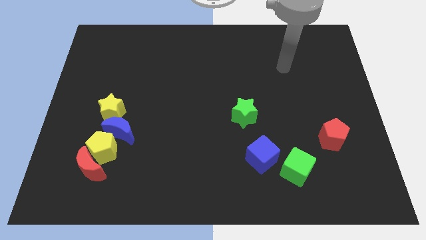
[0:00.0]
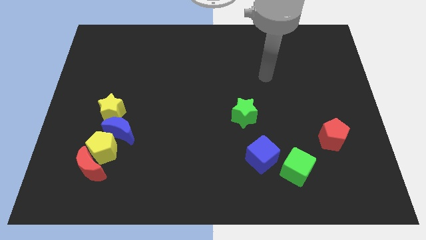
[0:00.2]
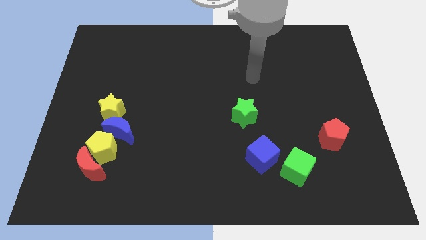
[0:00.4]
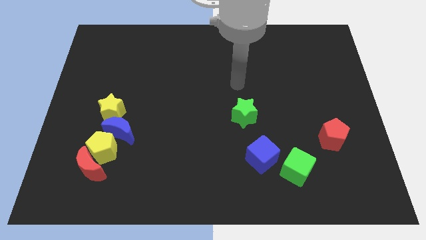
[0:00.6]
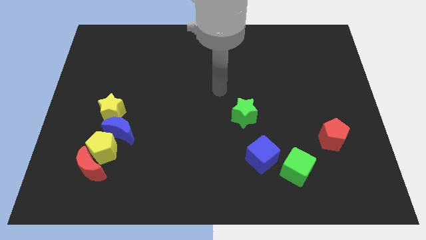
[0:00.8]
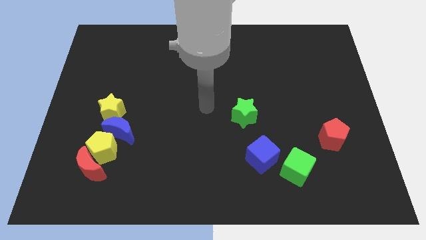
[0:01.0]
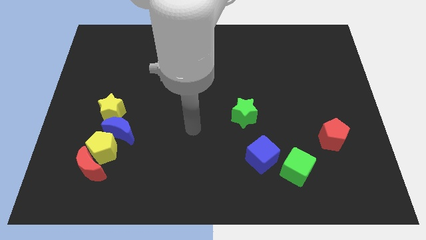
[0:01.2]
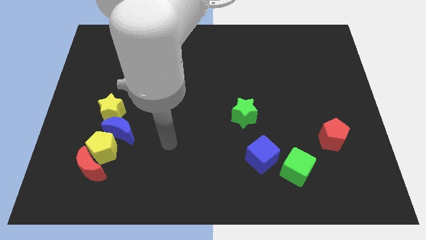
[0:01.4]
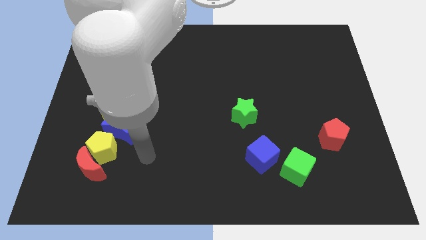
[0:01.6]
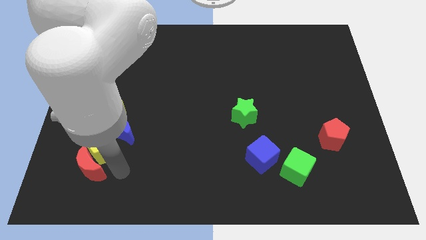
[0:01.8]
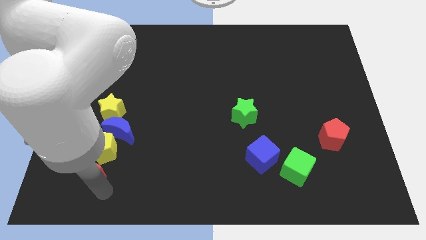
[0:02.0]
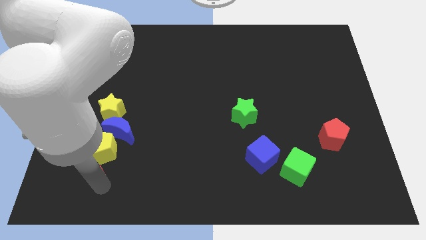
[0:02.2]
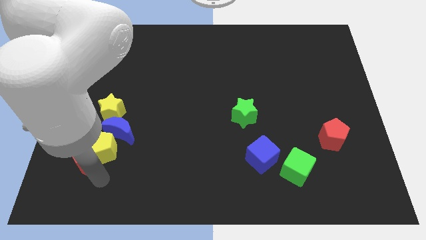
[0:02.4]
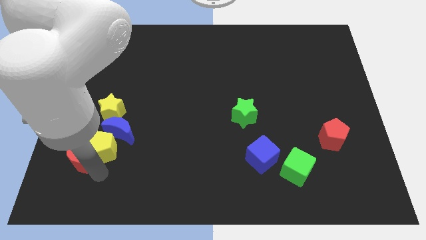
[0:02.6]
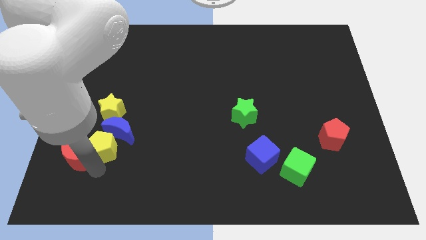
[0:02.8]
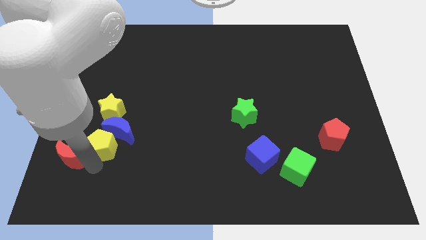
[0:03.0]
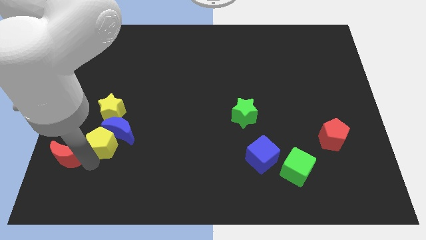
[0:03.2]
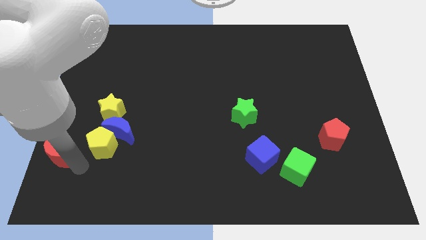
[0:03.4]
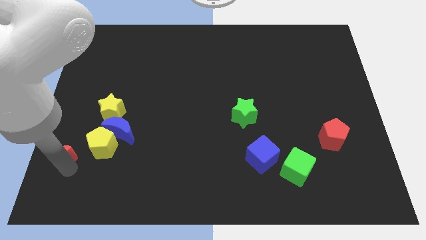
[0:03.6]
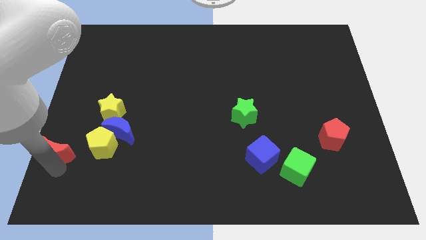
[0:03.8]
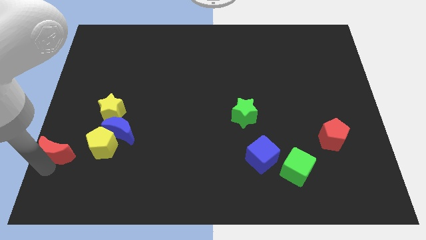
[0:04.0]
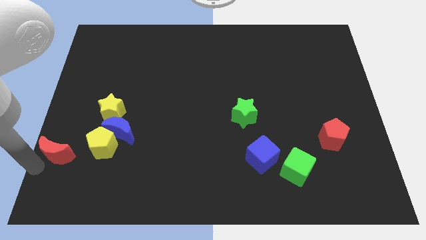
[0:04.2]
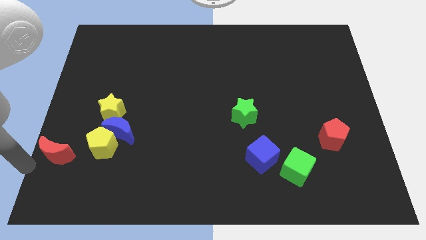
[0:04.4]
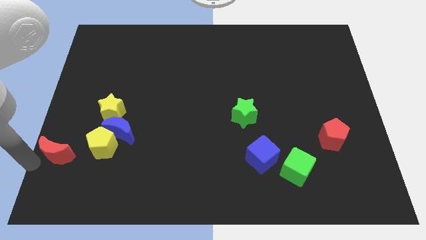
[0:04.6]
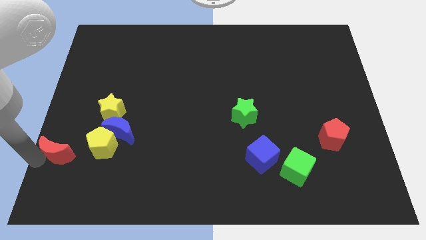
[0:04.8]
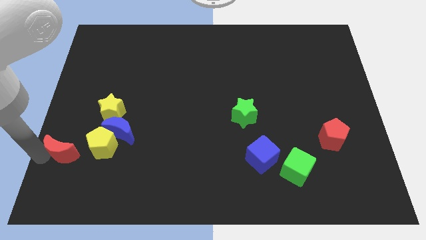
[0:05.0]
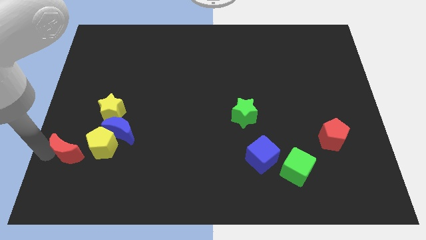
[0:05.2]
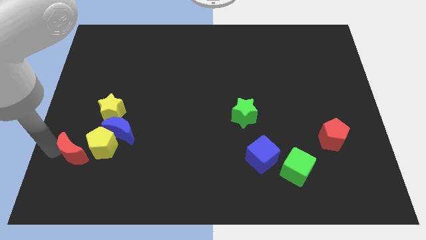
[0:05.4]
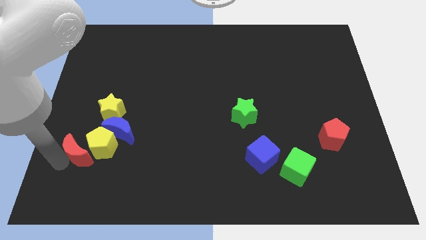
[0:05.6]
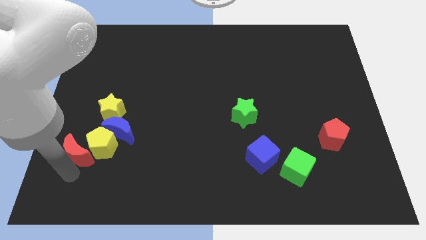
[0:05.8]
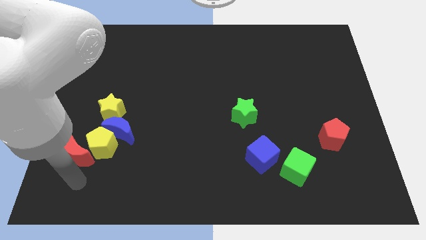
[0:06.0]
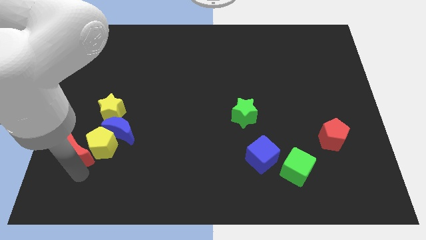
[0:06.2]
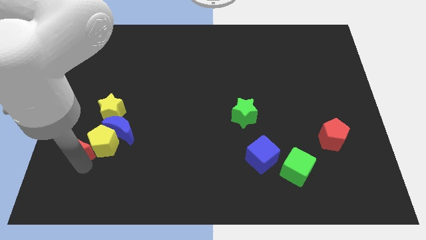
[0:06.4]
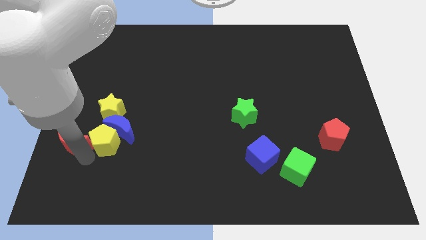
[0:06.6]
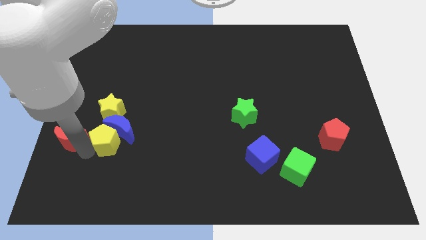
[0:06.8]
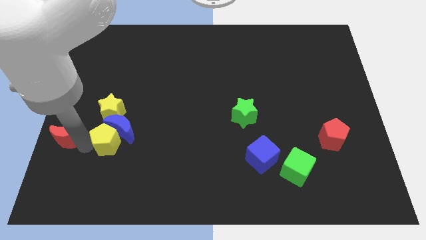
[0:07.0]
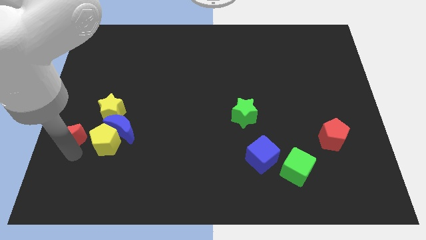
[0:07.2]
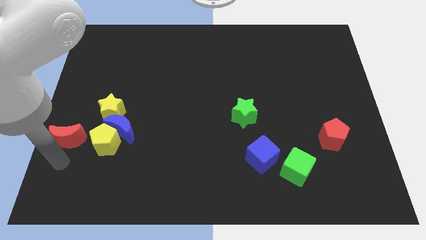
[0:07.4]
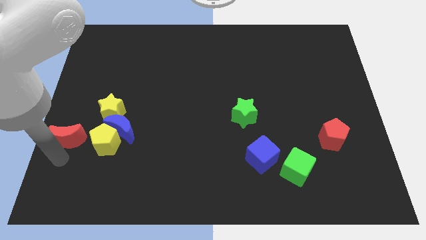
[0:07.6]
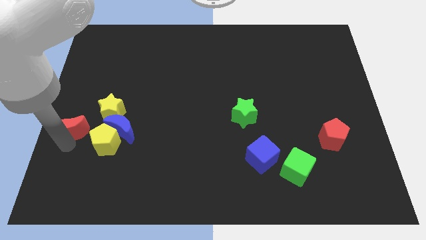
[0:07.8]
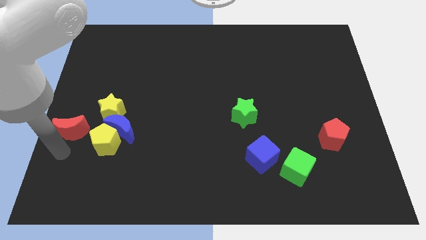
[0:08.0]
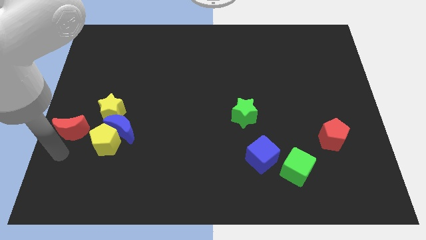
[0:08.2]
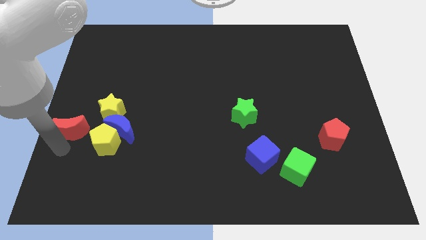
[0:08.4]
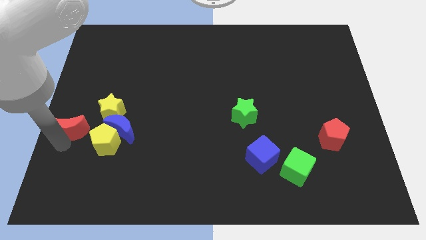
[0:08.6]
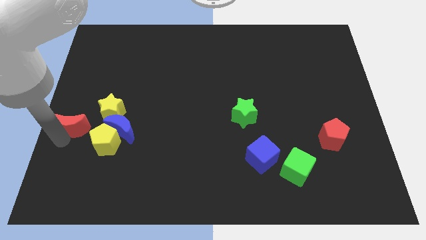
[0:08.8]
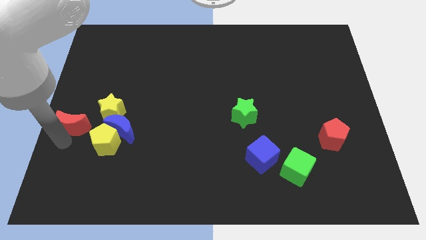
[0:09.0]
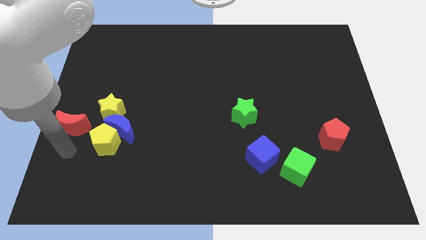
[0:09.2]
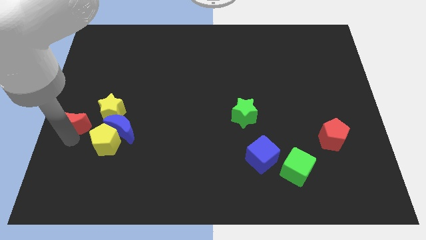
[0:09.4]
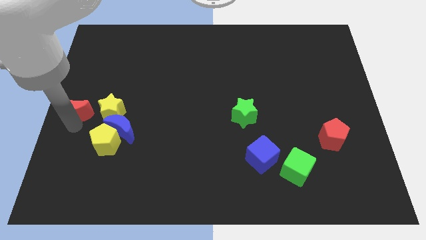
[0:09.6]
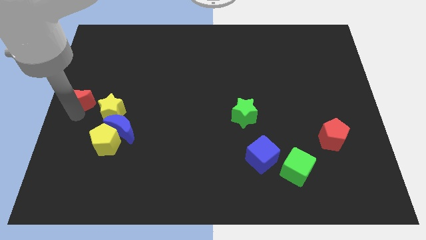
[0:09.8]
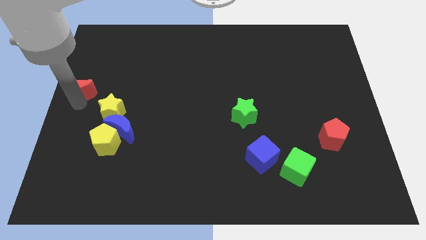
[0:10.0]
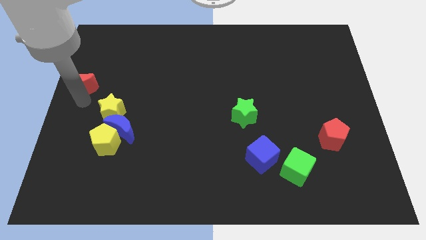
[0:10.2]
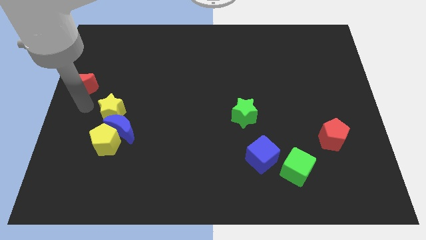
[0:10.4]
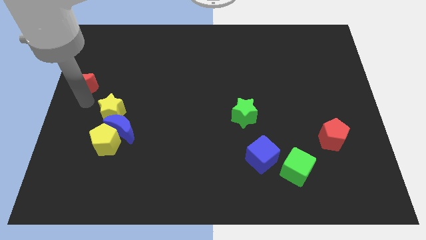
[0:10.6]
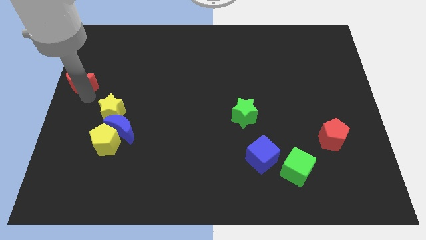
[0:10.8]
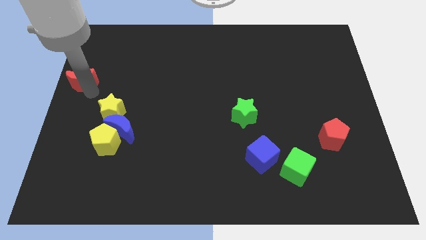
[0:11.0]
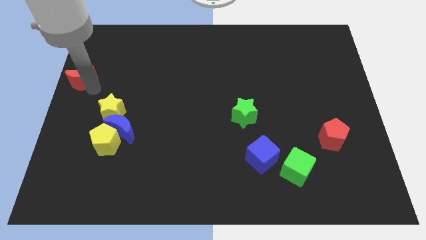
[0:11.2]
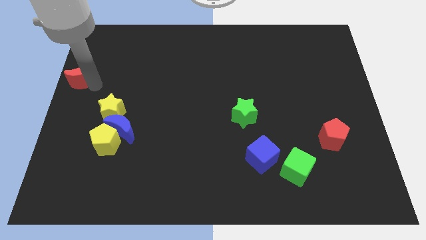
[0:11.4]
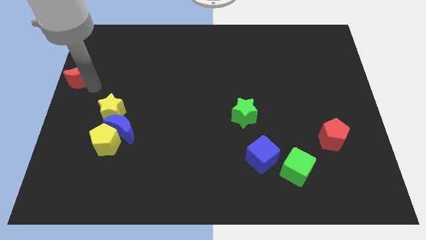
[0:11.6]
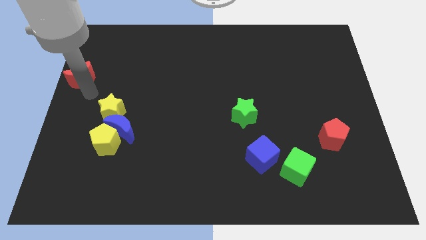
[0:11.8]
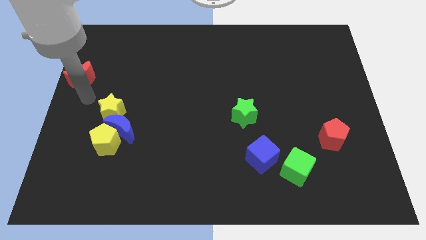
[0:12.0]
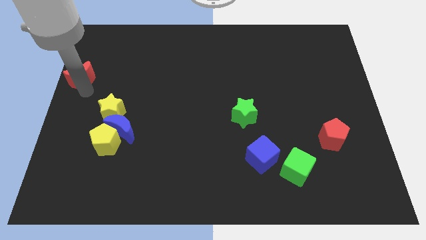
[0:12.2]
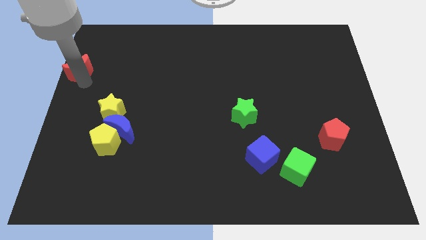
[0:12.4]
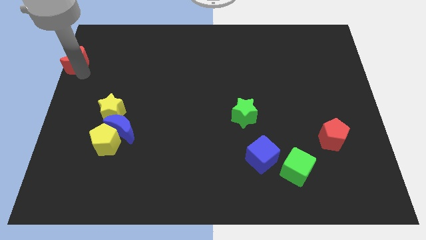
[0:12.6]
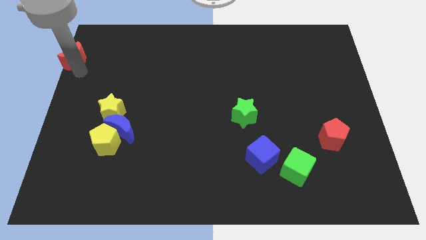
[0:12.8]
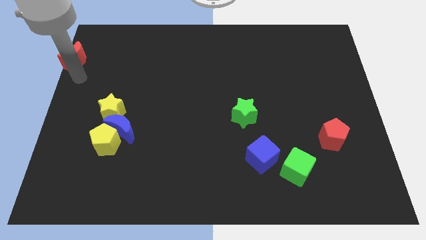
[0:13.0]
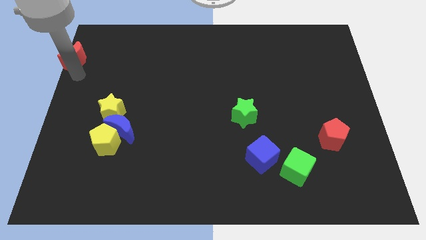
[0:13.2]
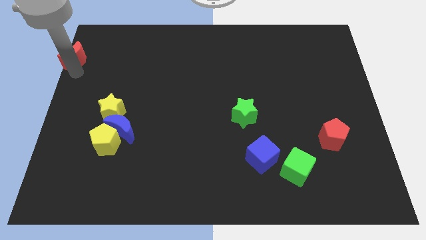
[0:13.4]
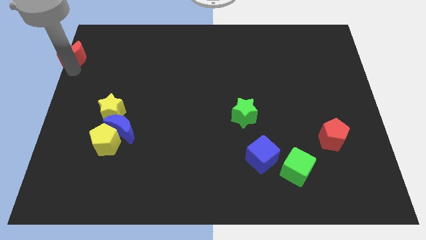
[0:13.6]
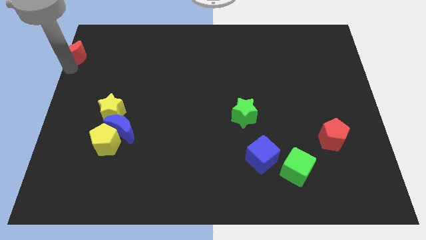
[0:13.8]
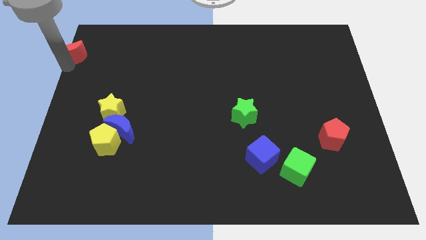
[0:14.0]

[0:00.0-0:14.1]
move the red moon to the top left
